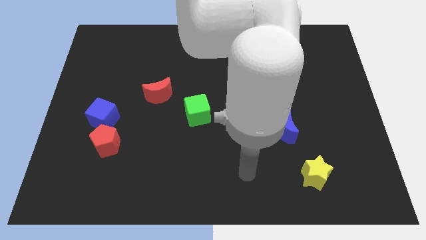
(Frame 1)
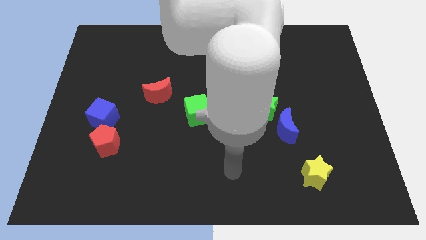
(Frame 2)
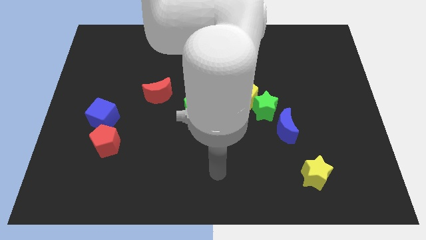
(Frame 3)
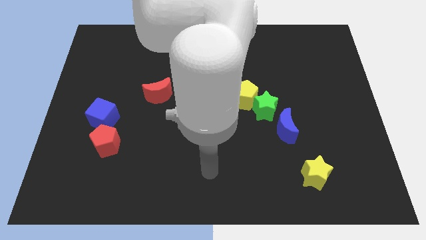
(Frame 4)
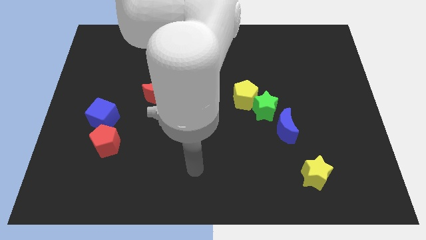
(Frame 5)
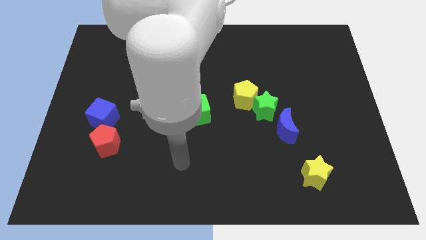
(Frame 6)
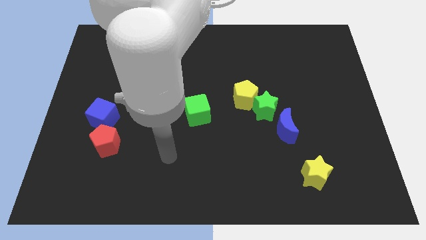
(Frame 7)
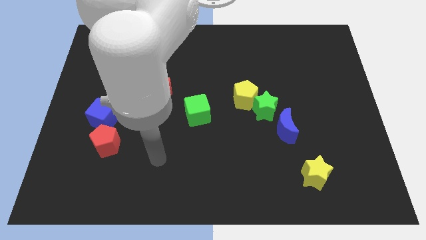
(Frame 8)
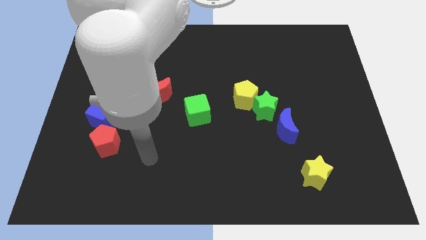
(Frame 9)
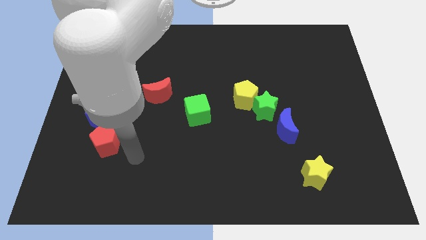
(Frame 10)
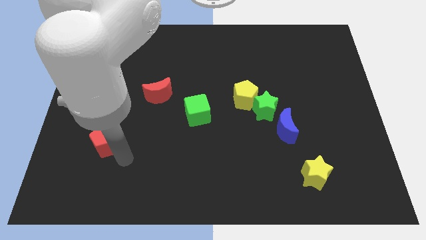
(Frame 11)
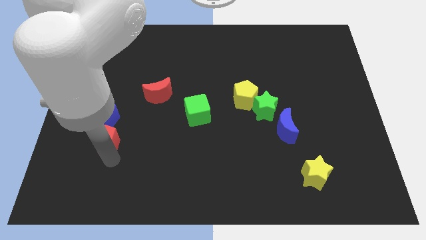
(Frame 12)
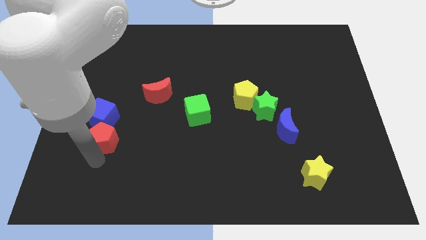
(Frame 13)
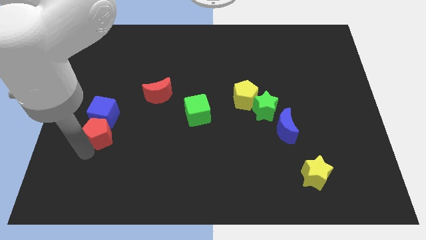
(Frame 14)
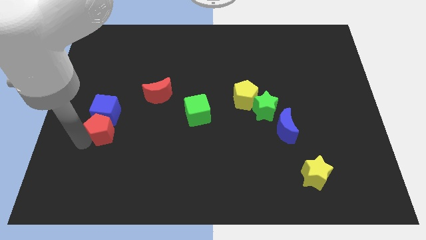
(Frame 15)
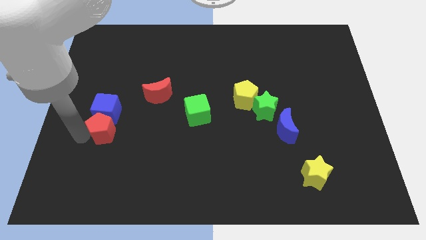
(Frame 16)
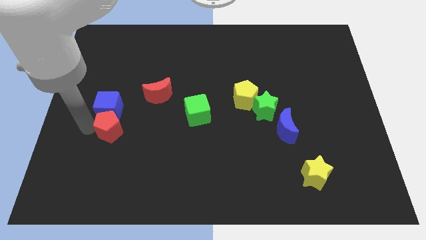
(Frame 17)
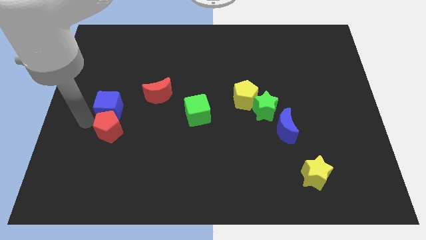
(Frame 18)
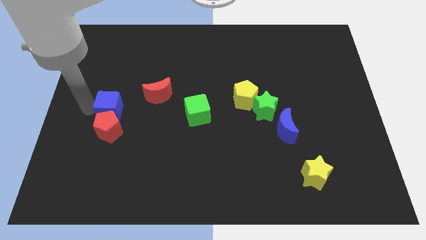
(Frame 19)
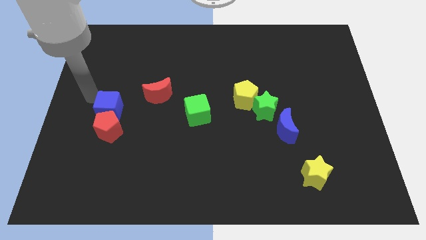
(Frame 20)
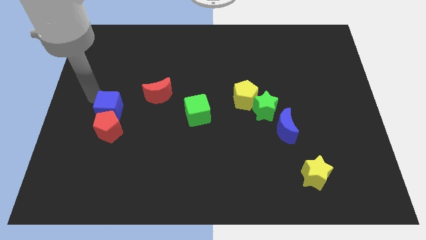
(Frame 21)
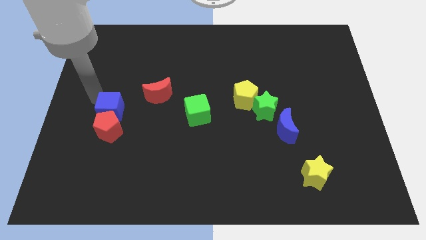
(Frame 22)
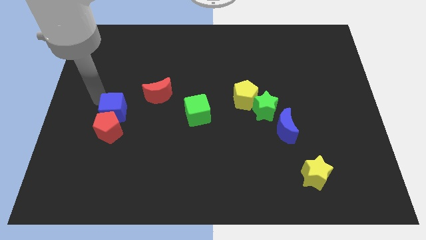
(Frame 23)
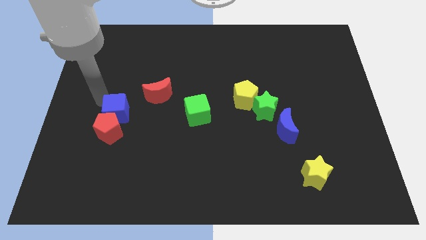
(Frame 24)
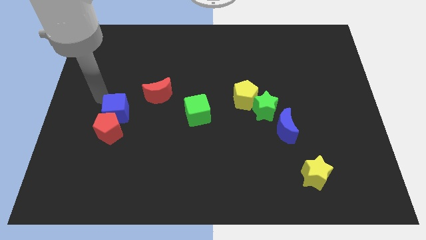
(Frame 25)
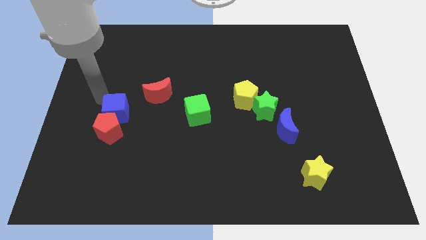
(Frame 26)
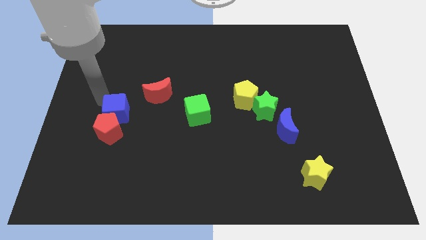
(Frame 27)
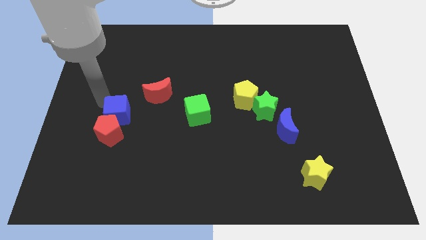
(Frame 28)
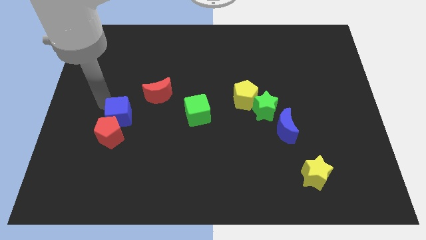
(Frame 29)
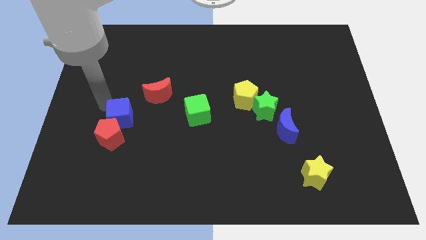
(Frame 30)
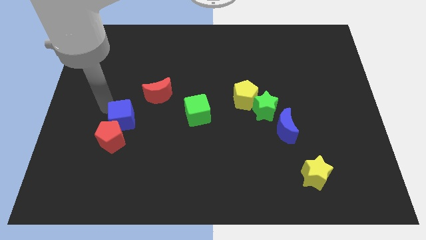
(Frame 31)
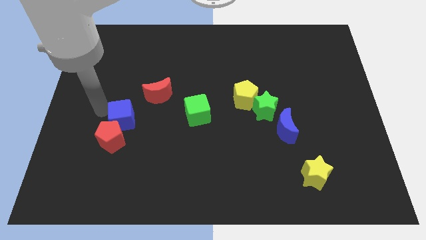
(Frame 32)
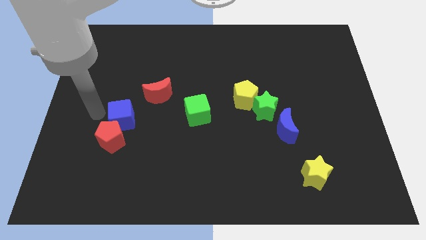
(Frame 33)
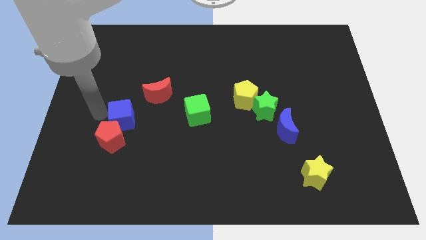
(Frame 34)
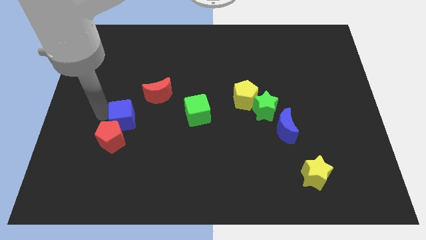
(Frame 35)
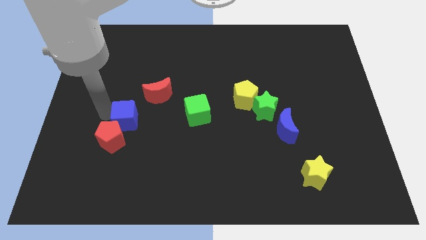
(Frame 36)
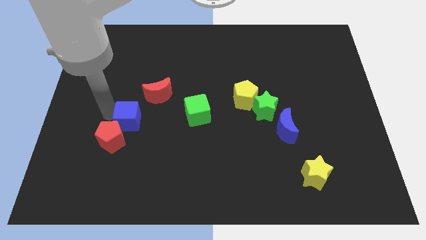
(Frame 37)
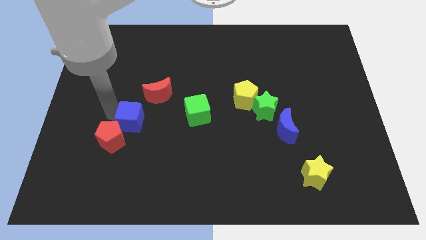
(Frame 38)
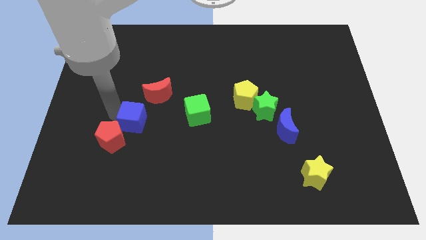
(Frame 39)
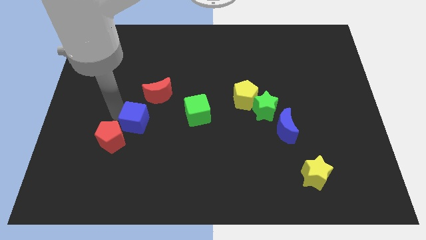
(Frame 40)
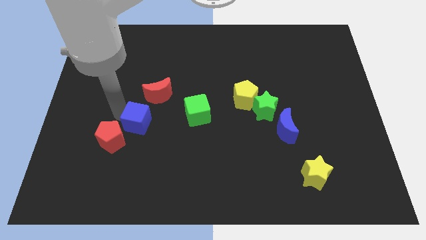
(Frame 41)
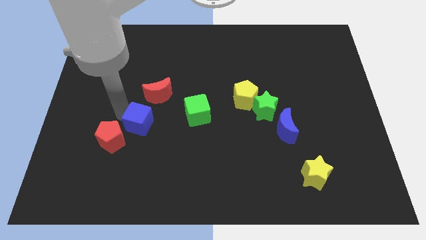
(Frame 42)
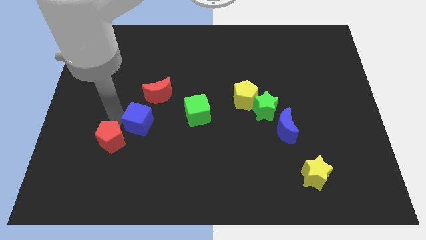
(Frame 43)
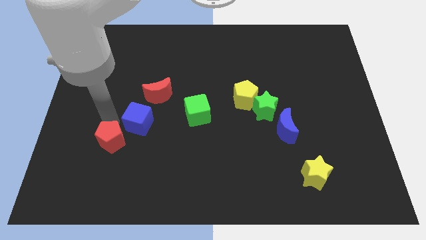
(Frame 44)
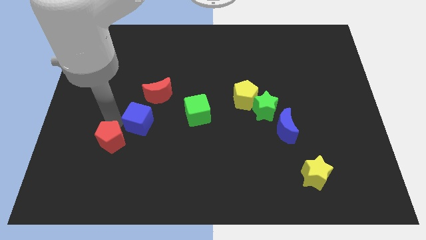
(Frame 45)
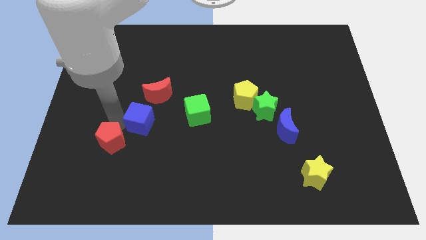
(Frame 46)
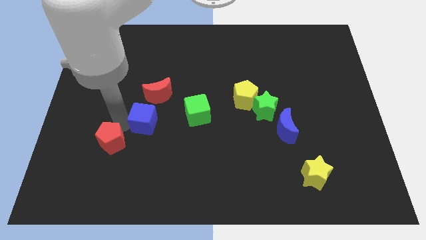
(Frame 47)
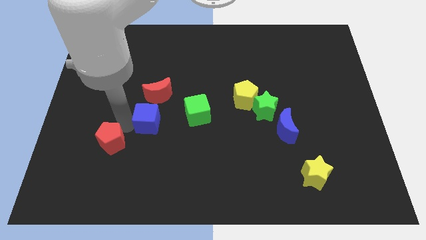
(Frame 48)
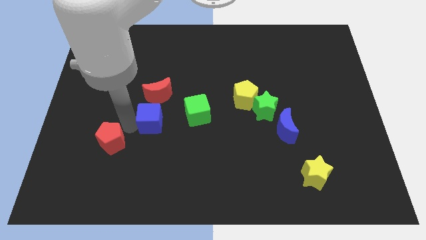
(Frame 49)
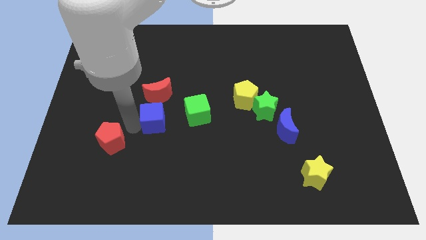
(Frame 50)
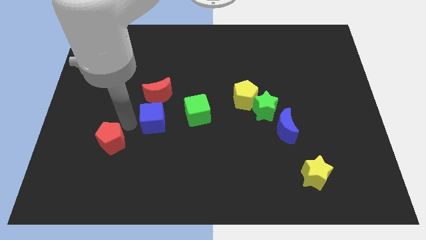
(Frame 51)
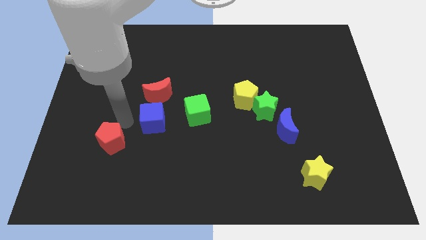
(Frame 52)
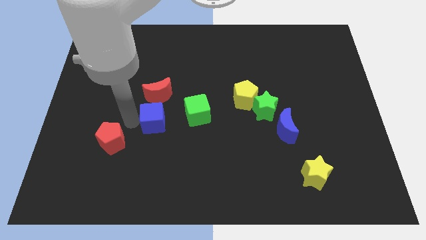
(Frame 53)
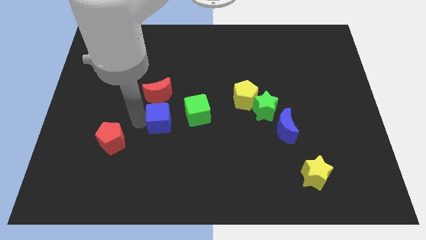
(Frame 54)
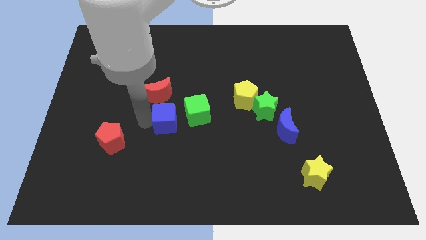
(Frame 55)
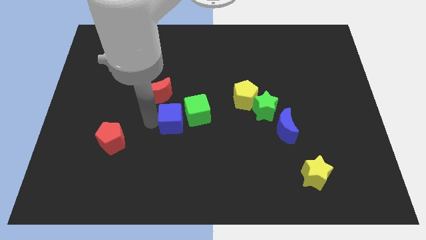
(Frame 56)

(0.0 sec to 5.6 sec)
put the blue cube towards the green cube

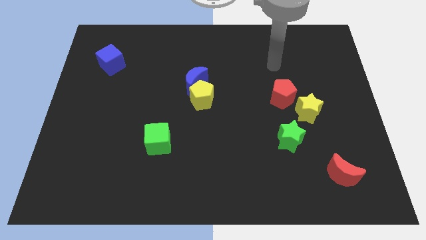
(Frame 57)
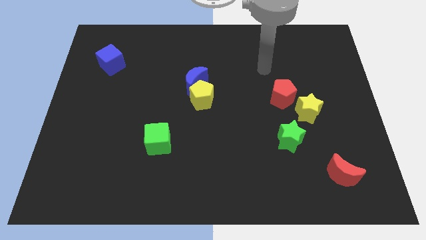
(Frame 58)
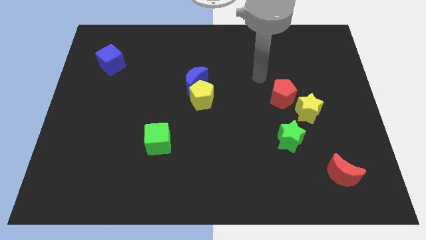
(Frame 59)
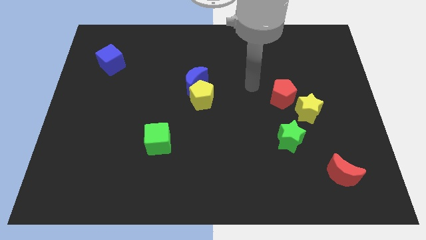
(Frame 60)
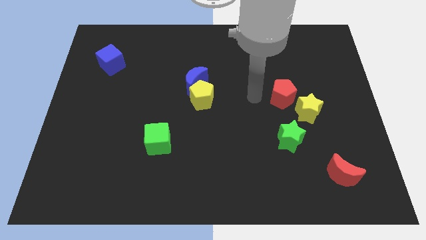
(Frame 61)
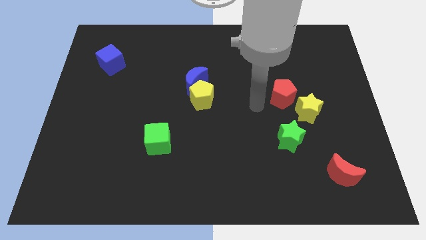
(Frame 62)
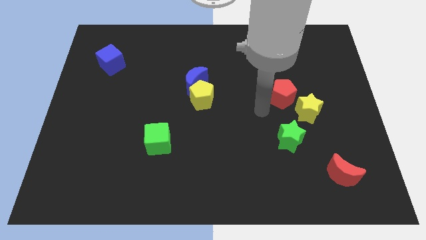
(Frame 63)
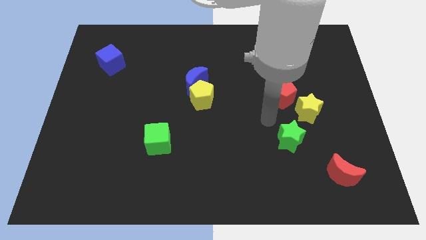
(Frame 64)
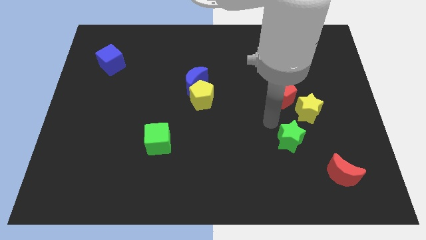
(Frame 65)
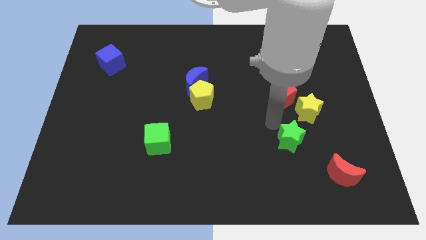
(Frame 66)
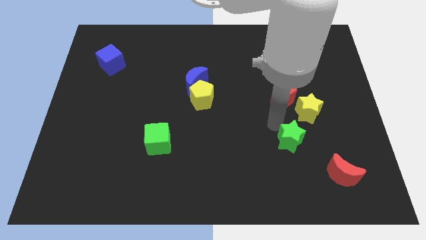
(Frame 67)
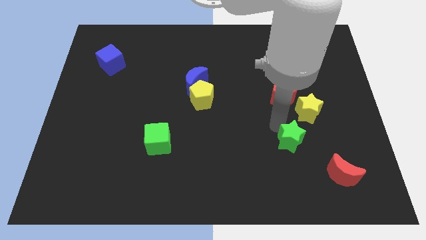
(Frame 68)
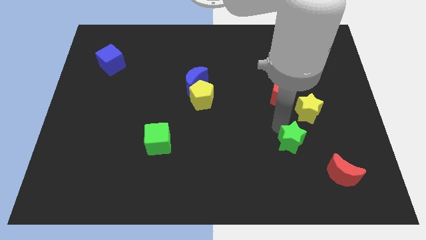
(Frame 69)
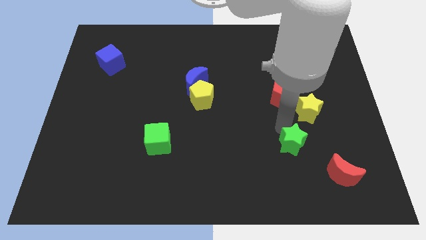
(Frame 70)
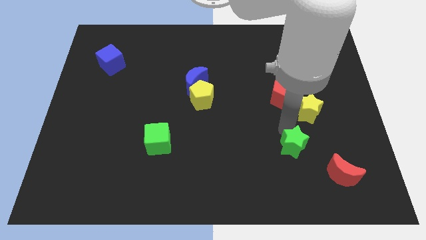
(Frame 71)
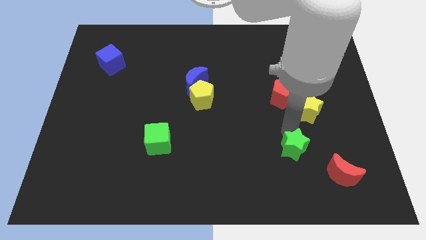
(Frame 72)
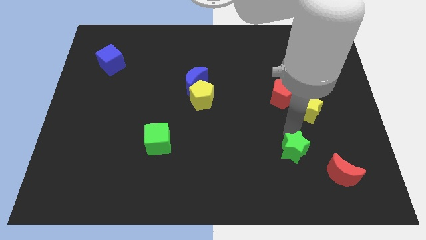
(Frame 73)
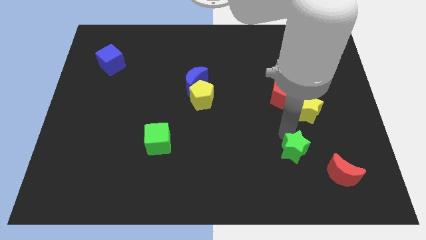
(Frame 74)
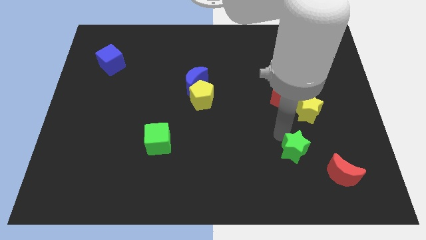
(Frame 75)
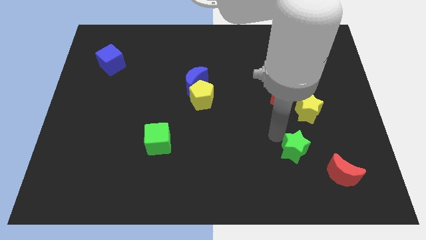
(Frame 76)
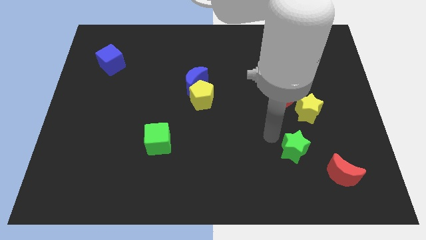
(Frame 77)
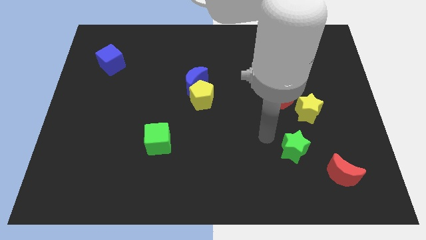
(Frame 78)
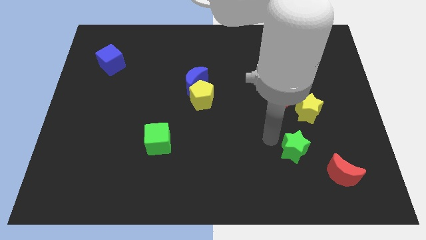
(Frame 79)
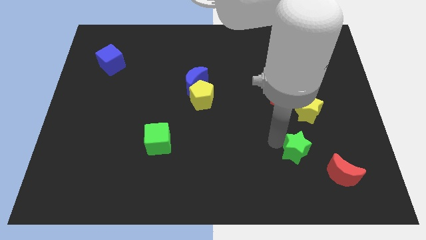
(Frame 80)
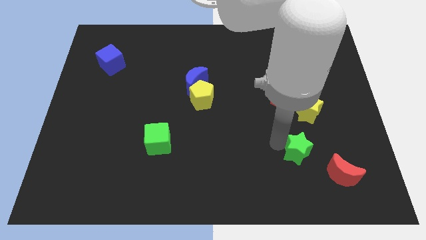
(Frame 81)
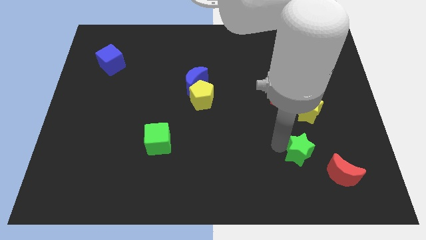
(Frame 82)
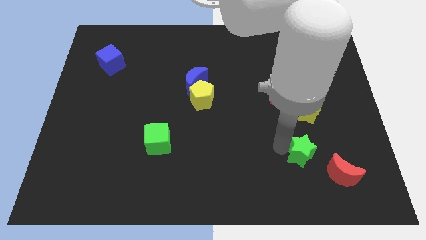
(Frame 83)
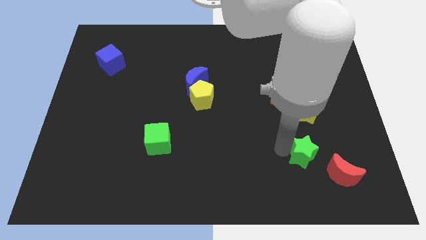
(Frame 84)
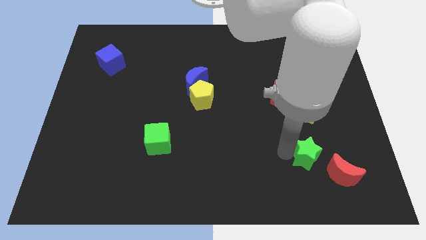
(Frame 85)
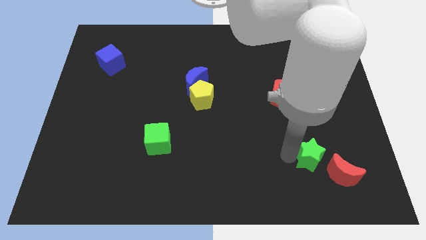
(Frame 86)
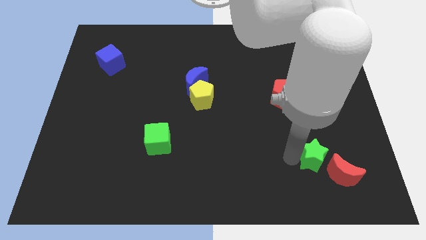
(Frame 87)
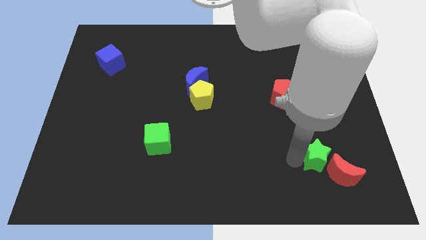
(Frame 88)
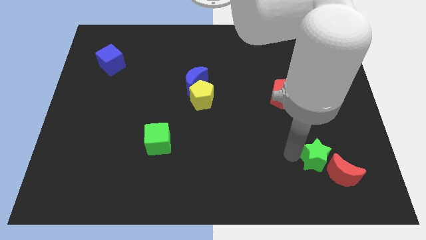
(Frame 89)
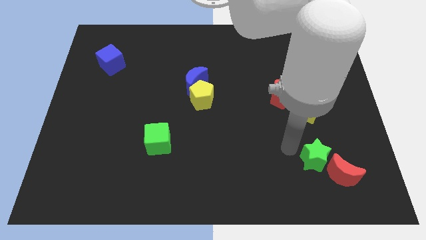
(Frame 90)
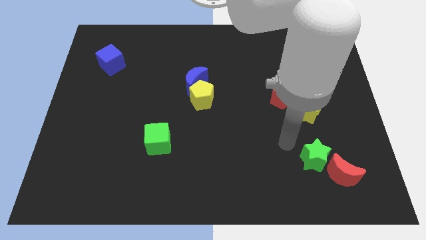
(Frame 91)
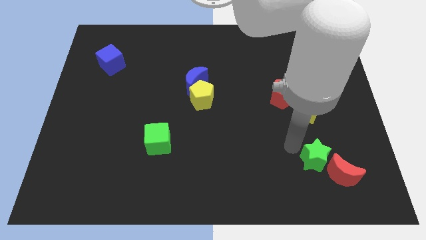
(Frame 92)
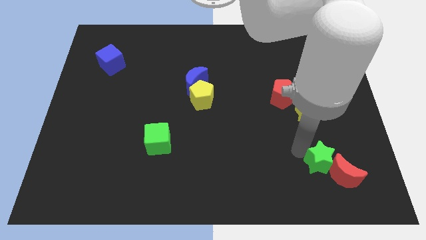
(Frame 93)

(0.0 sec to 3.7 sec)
slide the green star close to the red moon
